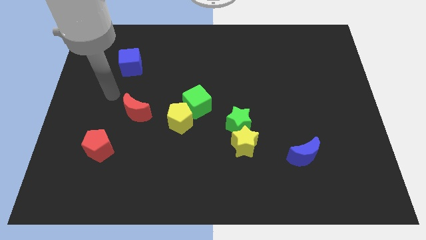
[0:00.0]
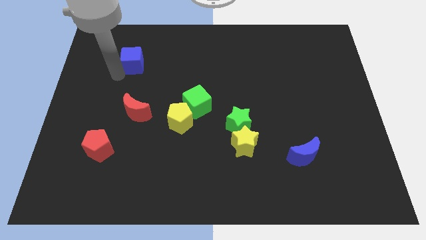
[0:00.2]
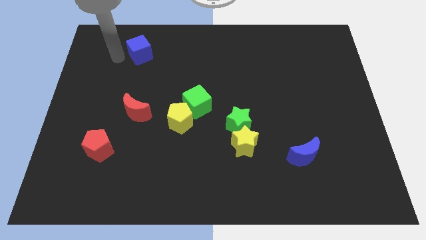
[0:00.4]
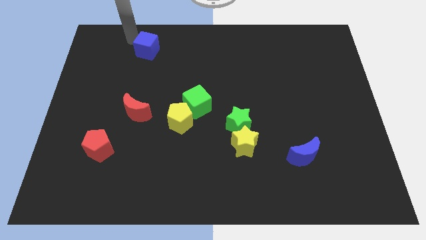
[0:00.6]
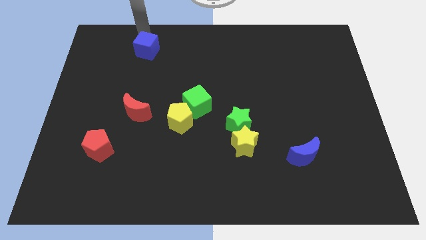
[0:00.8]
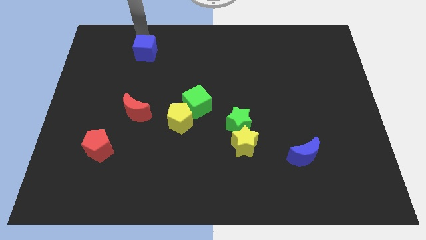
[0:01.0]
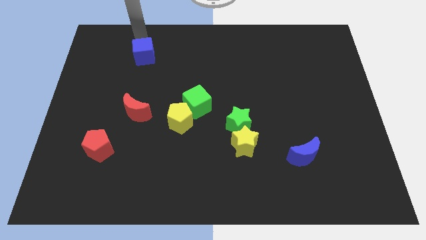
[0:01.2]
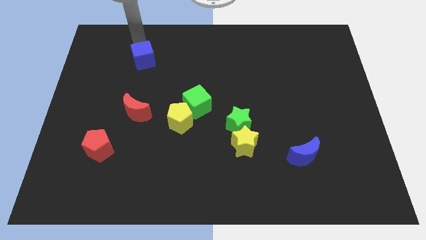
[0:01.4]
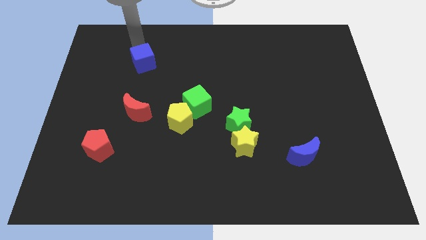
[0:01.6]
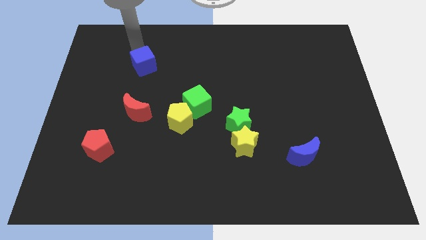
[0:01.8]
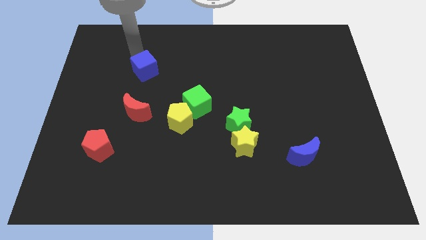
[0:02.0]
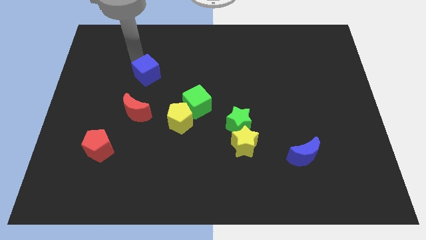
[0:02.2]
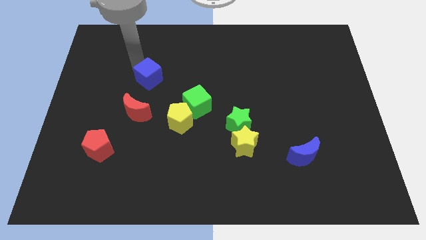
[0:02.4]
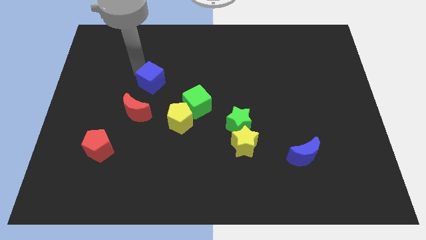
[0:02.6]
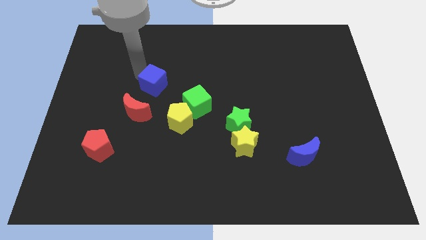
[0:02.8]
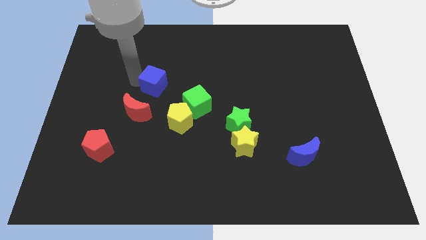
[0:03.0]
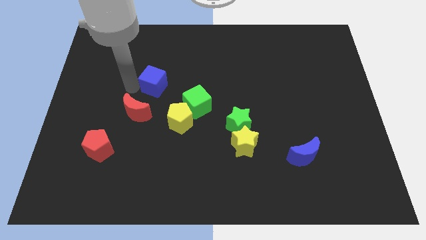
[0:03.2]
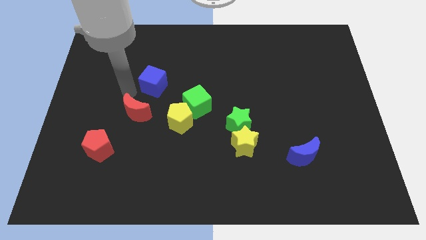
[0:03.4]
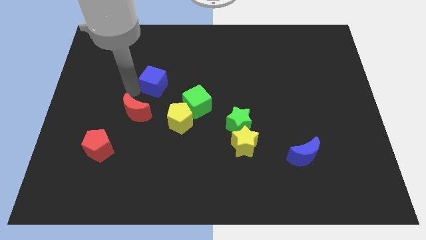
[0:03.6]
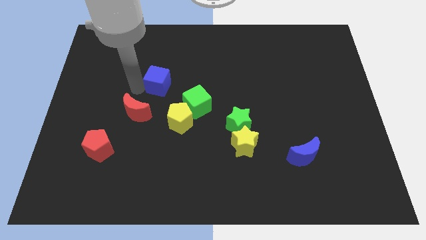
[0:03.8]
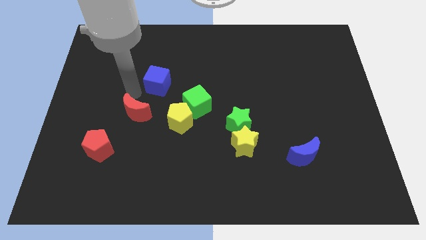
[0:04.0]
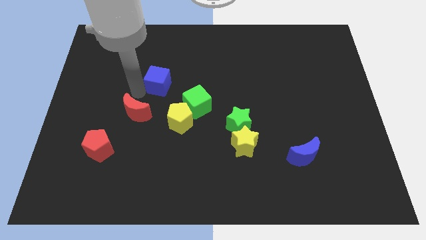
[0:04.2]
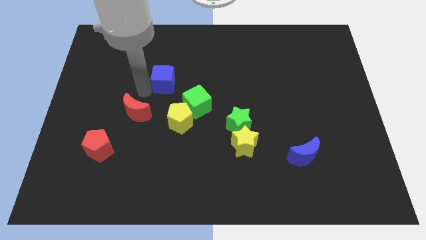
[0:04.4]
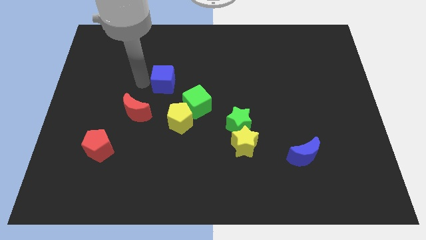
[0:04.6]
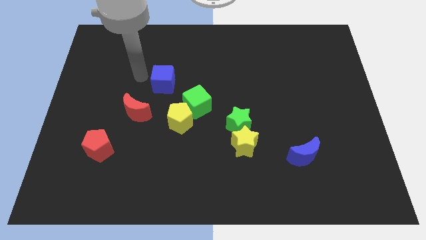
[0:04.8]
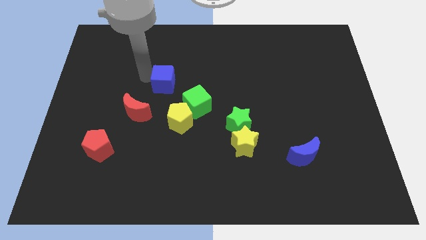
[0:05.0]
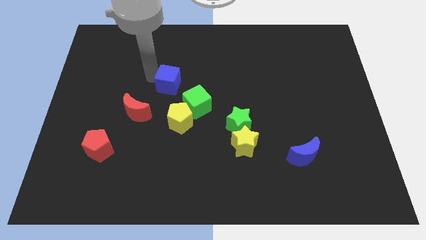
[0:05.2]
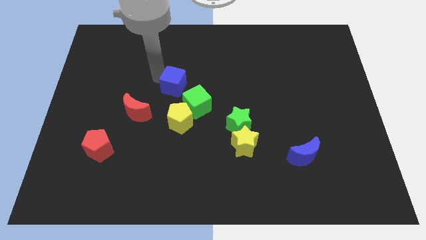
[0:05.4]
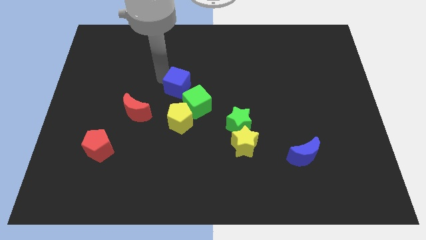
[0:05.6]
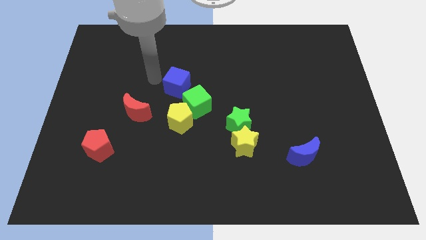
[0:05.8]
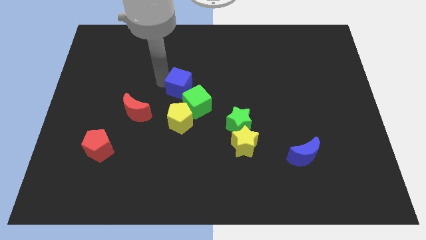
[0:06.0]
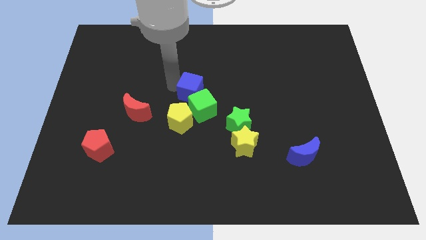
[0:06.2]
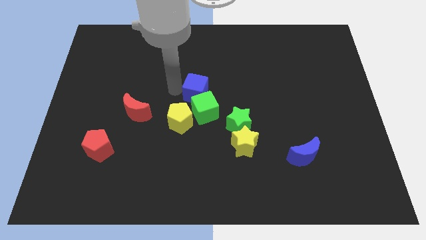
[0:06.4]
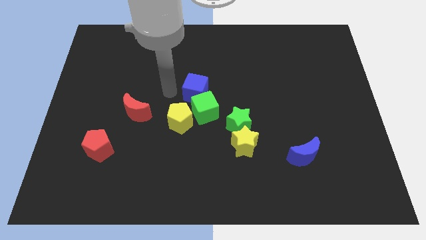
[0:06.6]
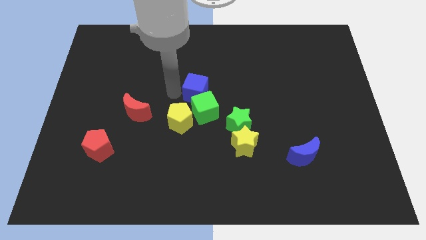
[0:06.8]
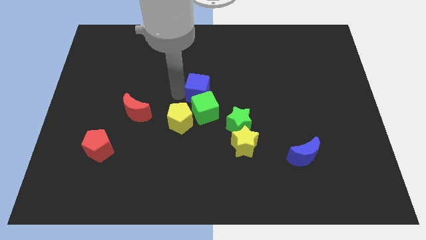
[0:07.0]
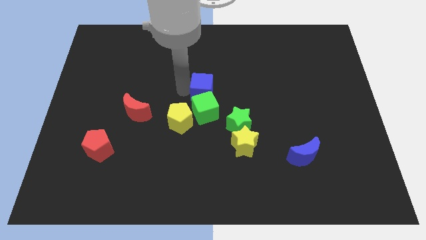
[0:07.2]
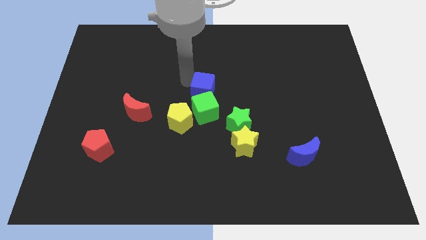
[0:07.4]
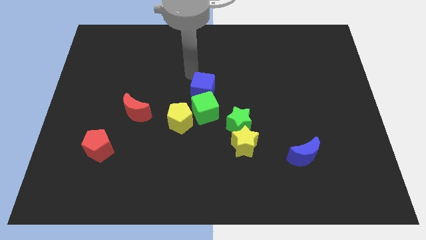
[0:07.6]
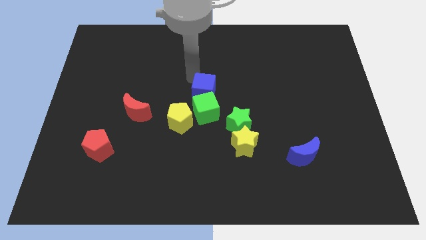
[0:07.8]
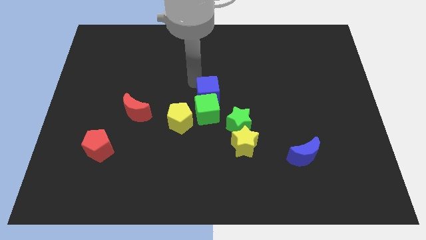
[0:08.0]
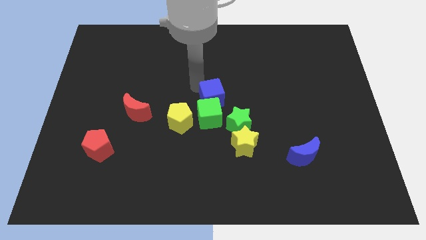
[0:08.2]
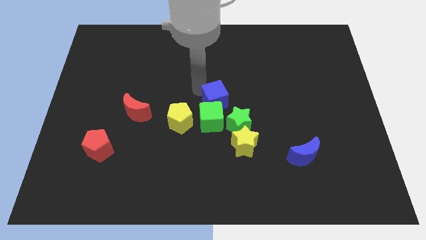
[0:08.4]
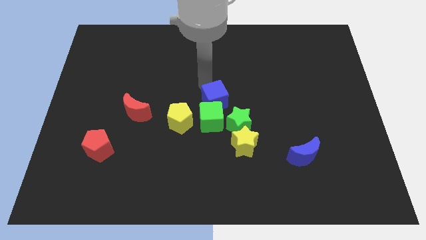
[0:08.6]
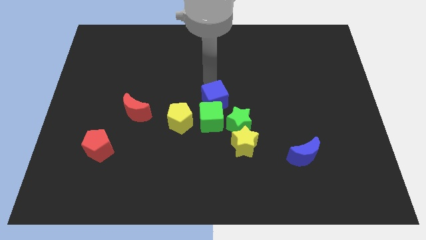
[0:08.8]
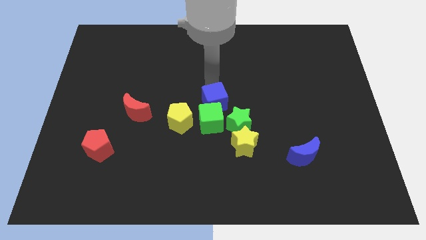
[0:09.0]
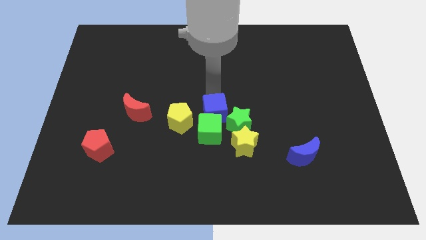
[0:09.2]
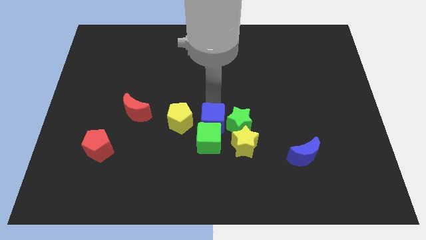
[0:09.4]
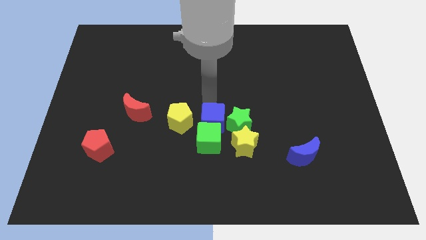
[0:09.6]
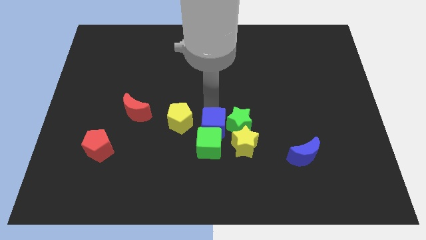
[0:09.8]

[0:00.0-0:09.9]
put the blue cube diagonally down and to the left of the green star

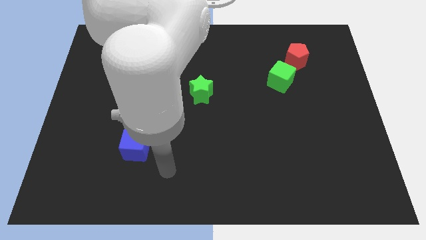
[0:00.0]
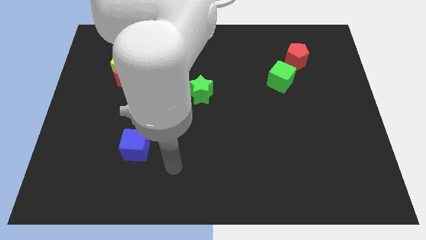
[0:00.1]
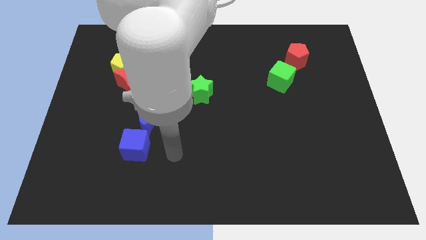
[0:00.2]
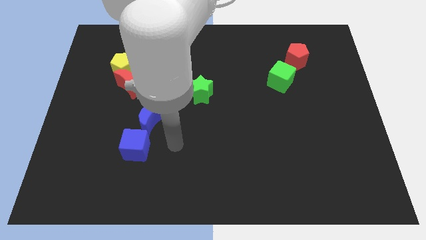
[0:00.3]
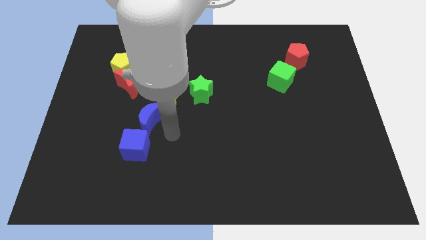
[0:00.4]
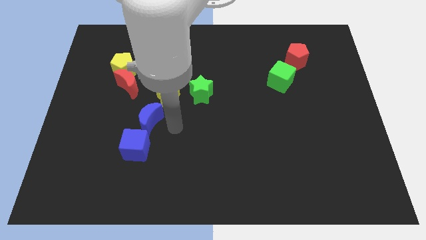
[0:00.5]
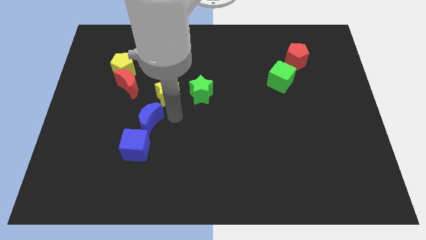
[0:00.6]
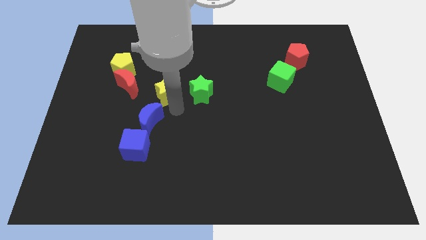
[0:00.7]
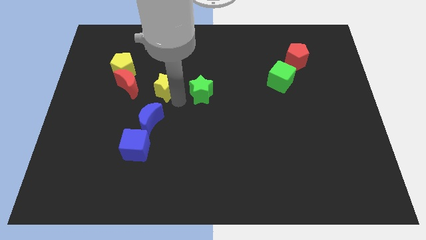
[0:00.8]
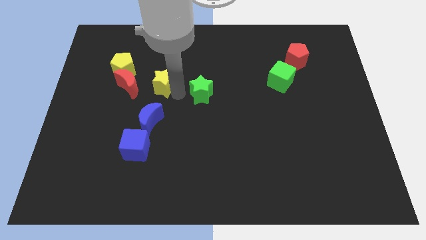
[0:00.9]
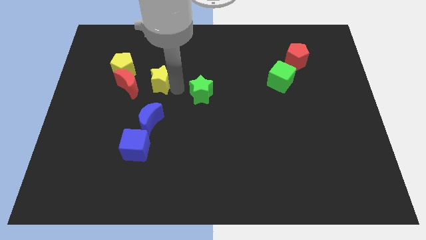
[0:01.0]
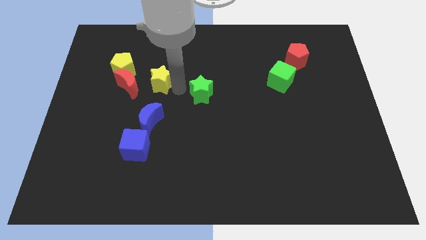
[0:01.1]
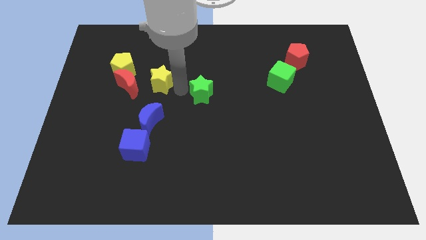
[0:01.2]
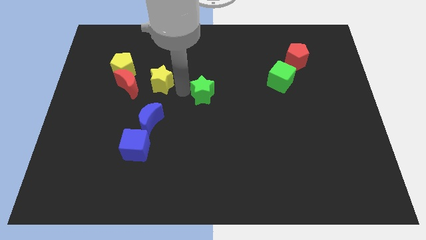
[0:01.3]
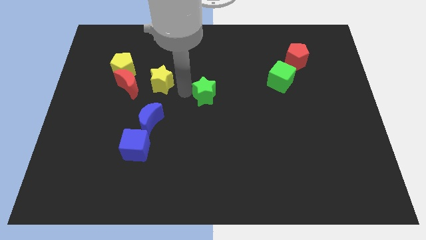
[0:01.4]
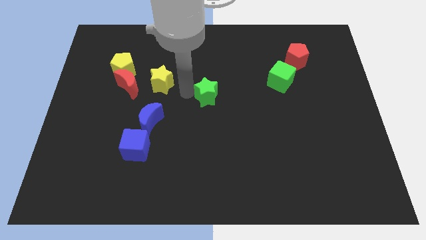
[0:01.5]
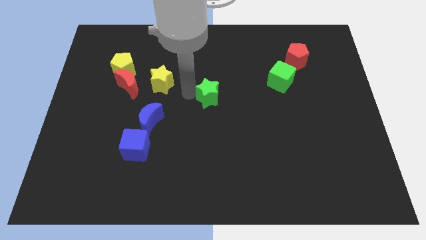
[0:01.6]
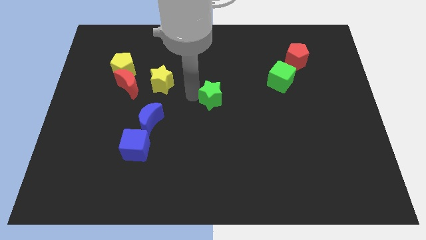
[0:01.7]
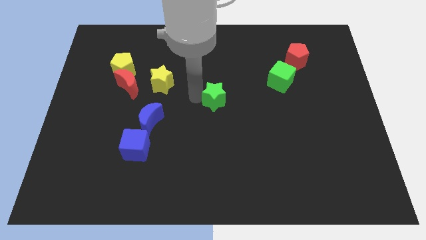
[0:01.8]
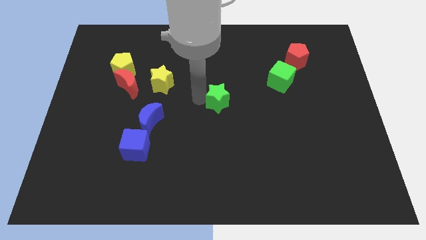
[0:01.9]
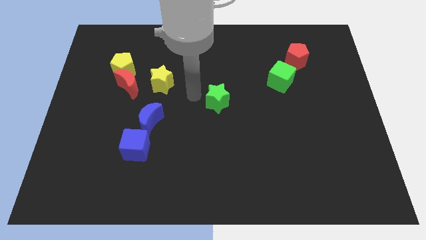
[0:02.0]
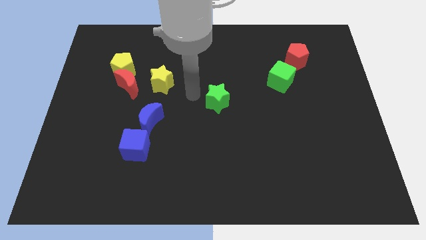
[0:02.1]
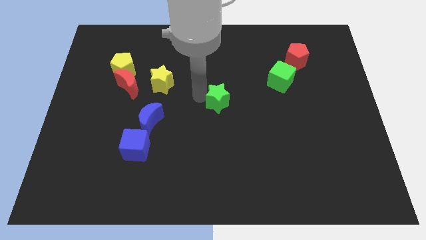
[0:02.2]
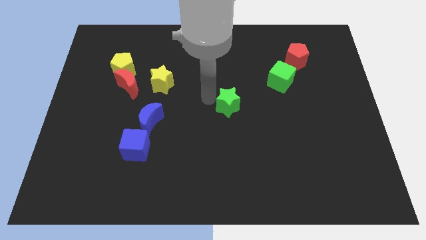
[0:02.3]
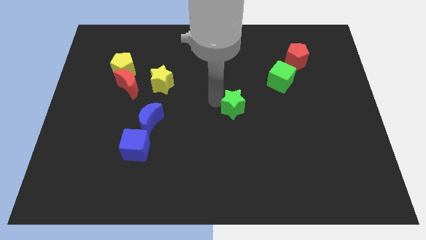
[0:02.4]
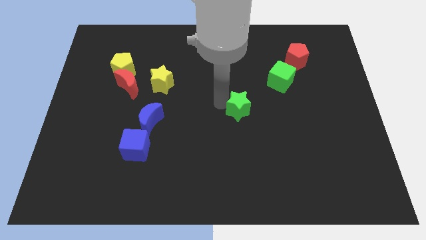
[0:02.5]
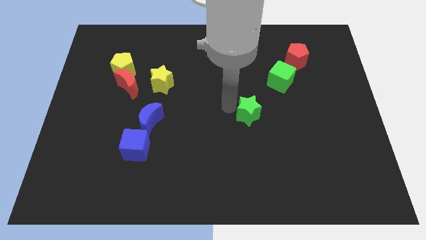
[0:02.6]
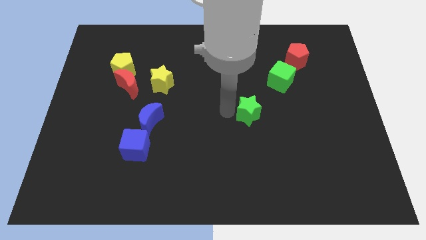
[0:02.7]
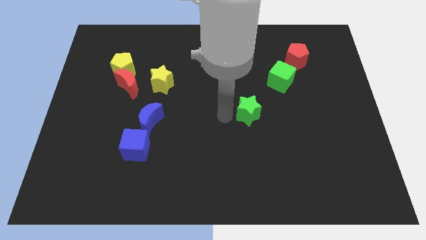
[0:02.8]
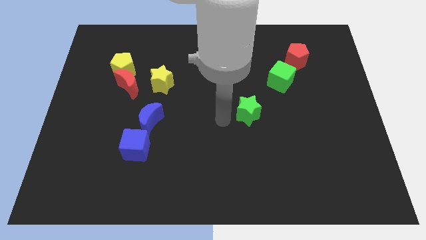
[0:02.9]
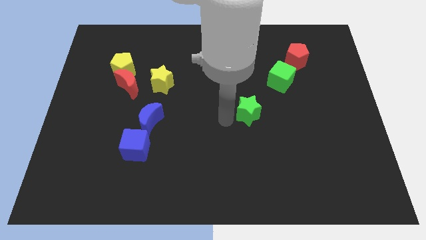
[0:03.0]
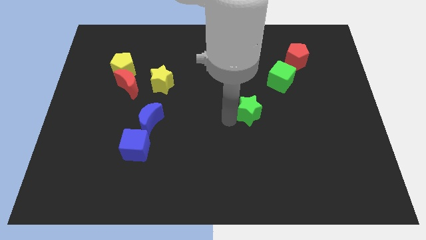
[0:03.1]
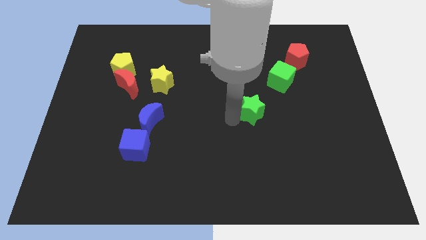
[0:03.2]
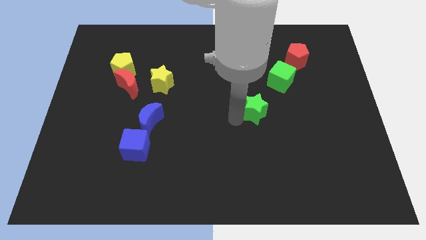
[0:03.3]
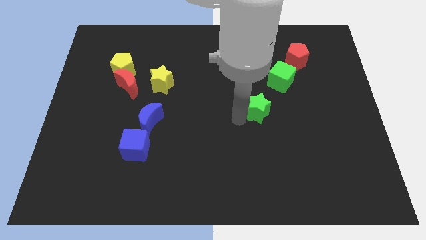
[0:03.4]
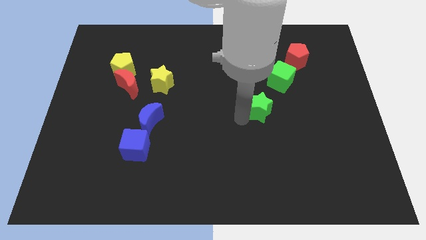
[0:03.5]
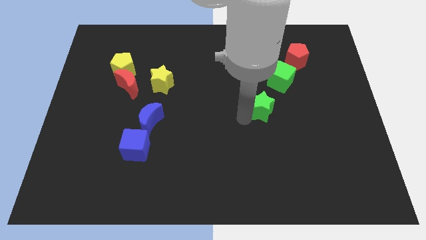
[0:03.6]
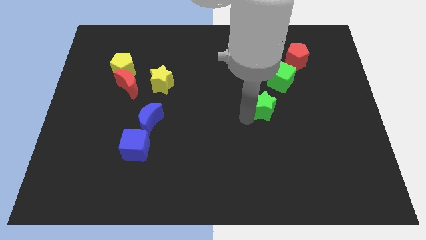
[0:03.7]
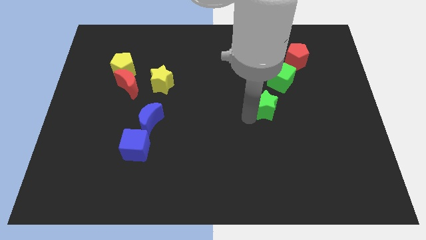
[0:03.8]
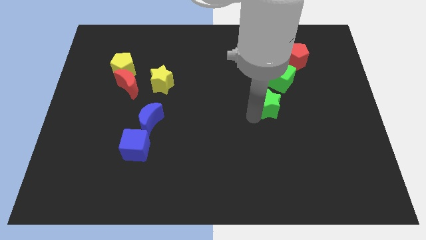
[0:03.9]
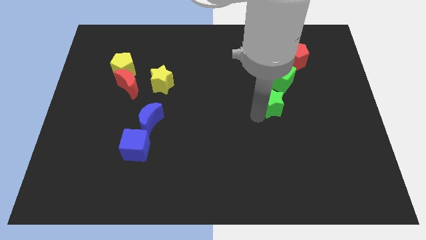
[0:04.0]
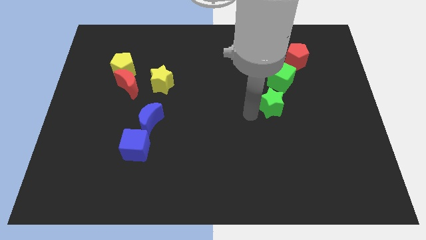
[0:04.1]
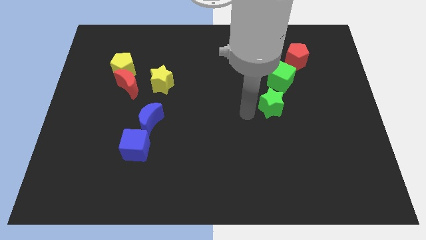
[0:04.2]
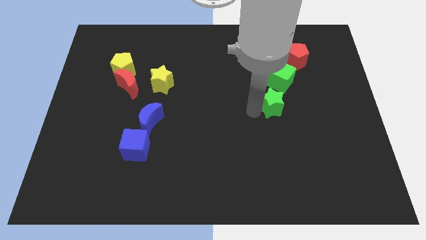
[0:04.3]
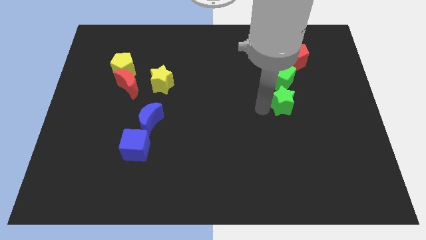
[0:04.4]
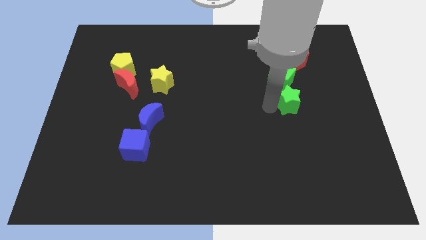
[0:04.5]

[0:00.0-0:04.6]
slide the green star to the bottom right of the green cube
